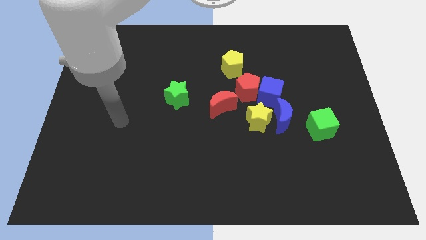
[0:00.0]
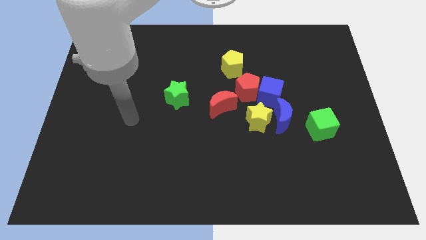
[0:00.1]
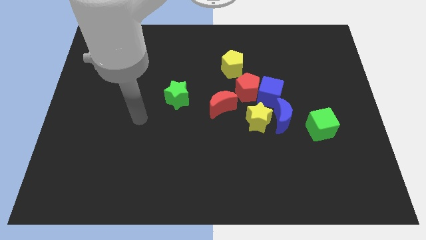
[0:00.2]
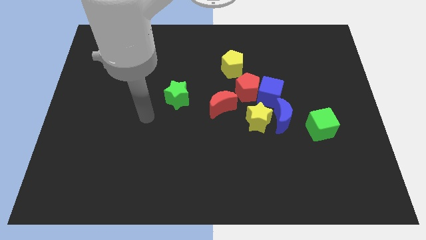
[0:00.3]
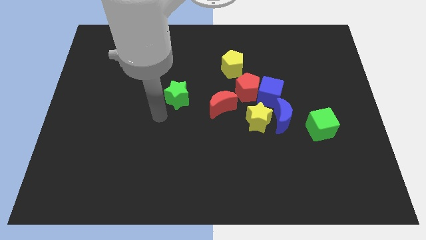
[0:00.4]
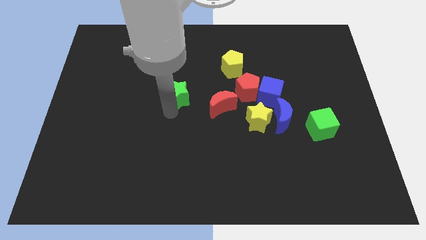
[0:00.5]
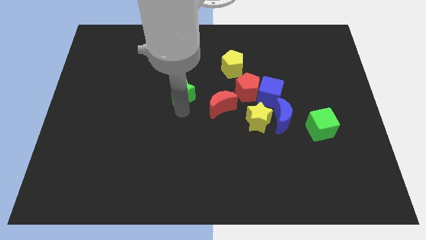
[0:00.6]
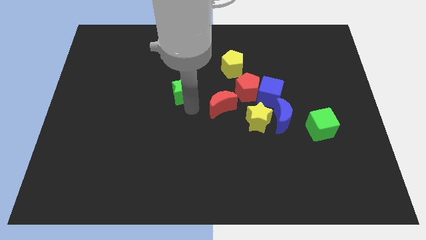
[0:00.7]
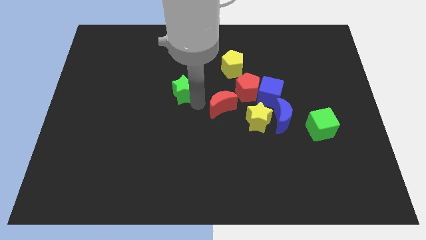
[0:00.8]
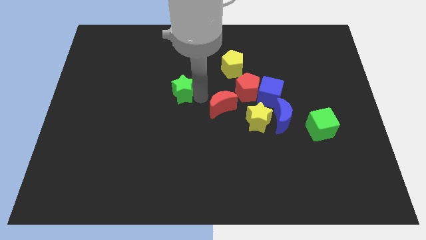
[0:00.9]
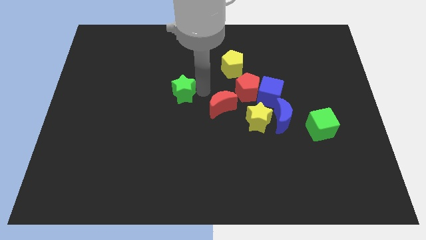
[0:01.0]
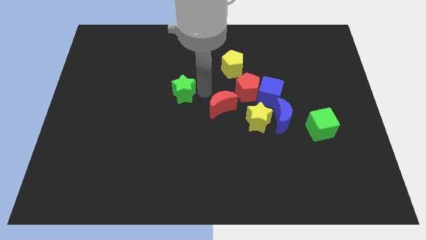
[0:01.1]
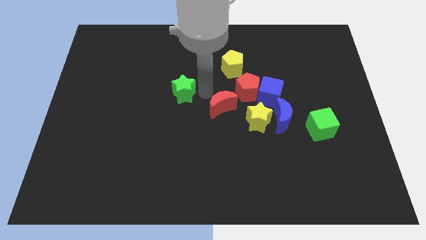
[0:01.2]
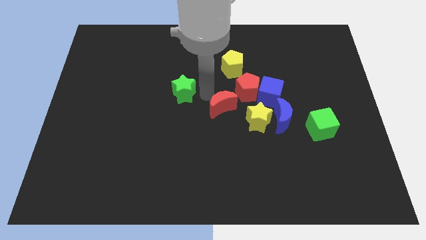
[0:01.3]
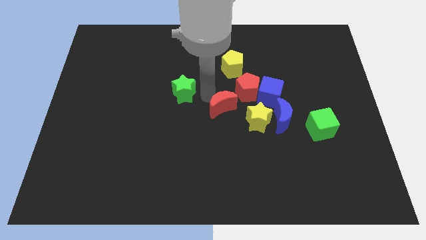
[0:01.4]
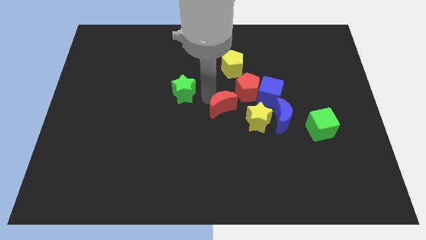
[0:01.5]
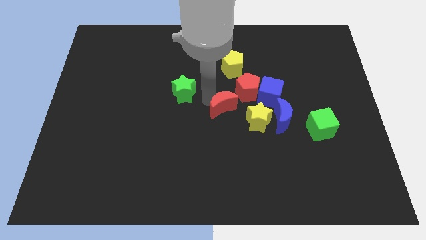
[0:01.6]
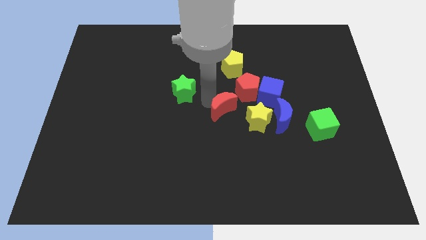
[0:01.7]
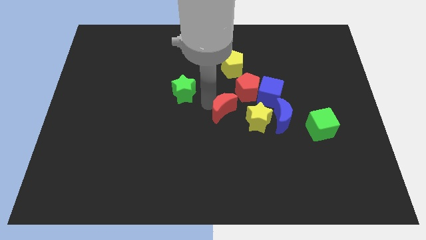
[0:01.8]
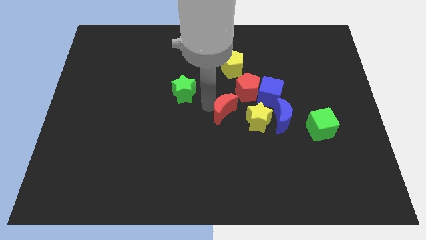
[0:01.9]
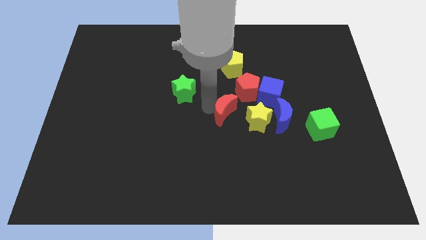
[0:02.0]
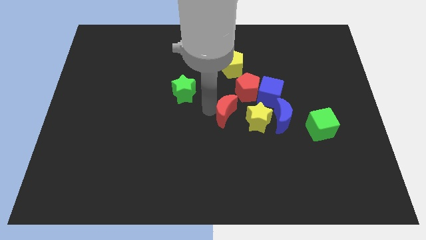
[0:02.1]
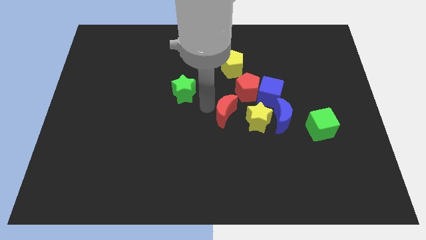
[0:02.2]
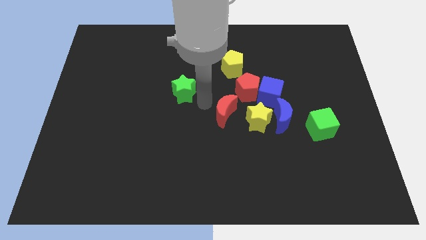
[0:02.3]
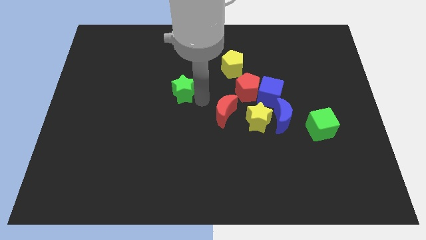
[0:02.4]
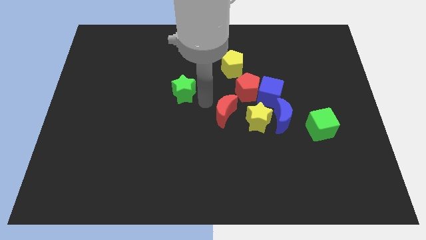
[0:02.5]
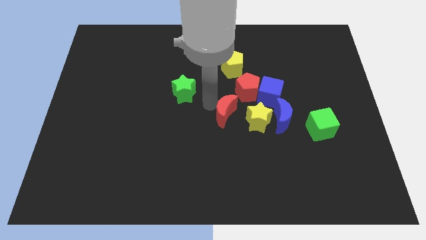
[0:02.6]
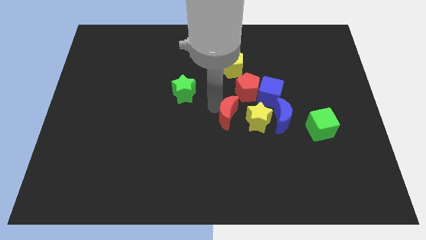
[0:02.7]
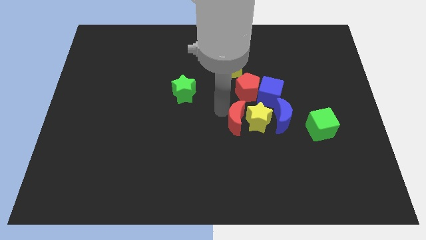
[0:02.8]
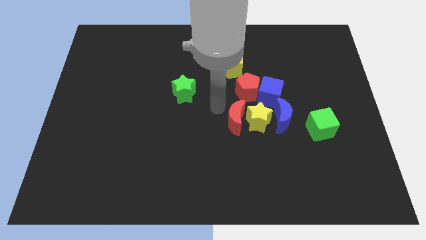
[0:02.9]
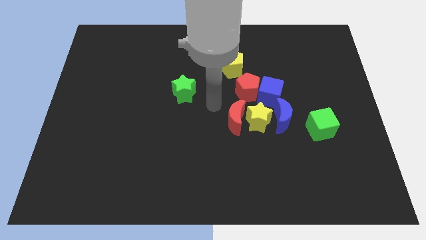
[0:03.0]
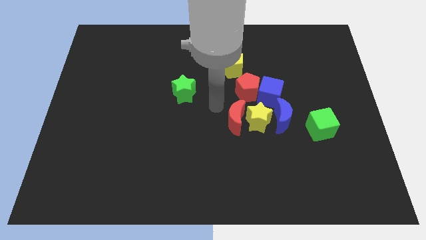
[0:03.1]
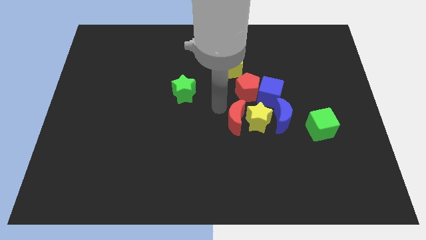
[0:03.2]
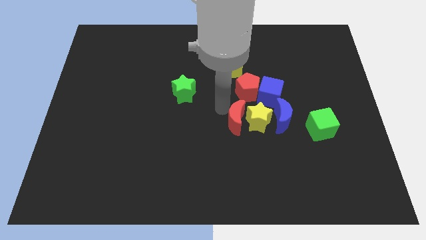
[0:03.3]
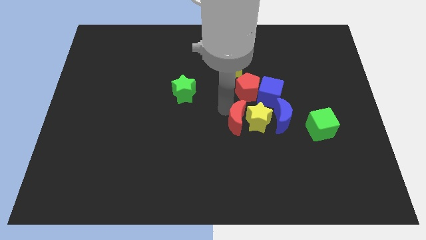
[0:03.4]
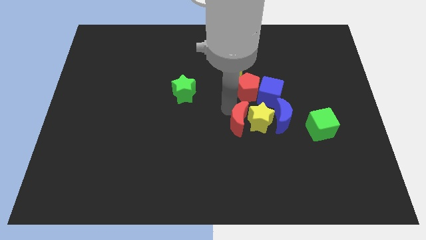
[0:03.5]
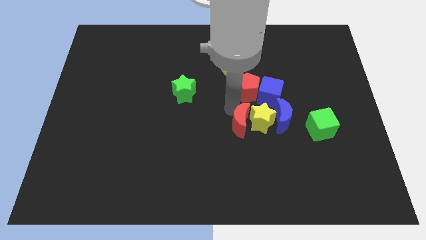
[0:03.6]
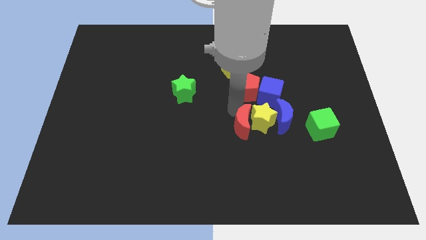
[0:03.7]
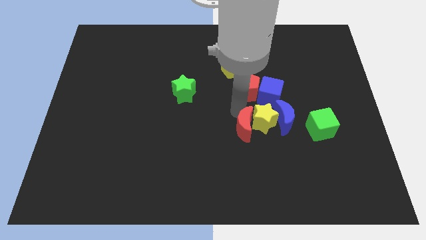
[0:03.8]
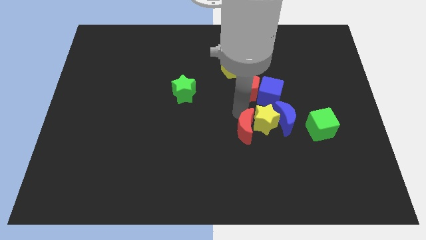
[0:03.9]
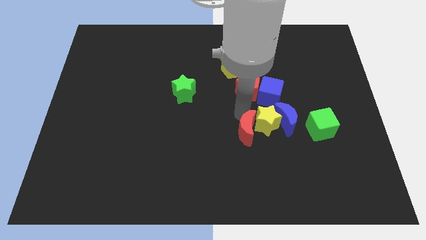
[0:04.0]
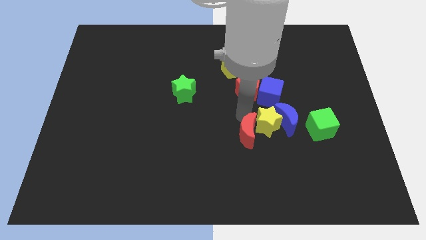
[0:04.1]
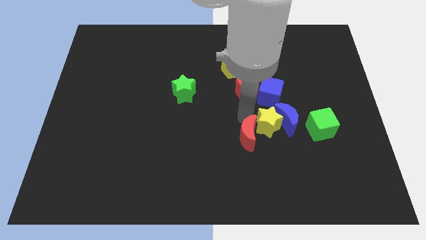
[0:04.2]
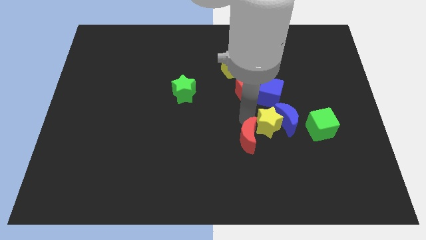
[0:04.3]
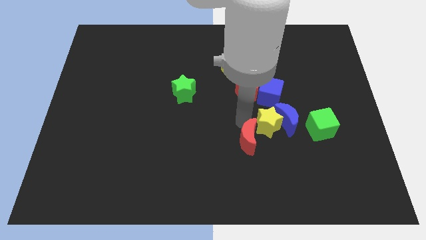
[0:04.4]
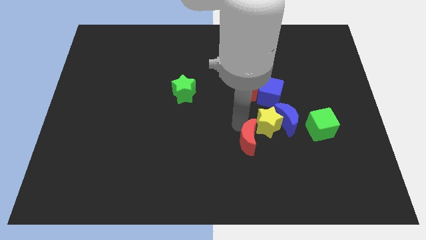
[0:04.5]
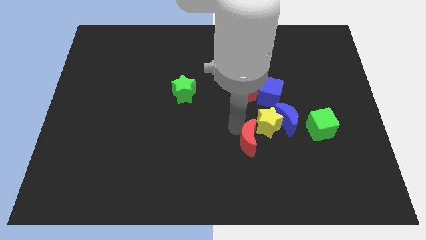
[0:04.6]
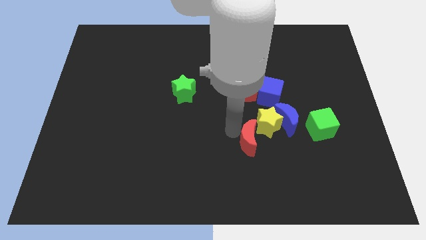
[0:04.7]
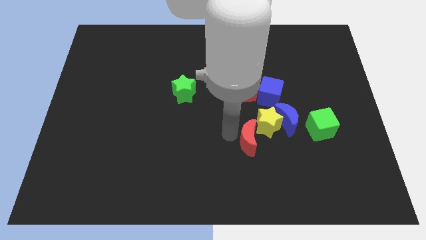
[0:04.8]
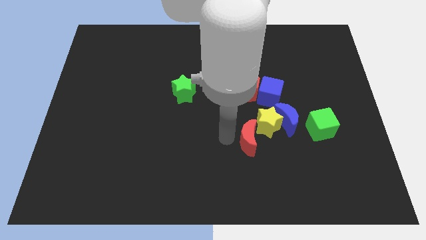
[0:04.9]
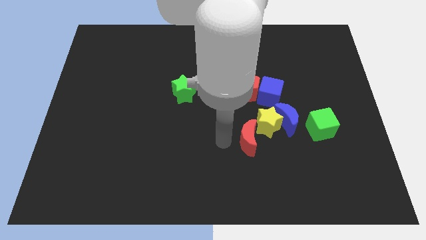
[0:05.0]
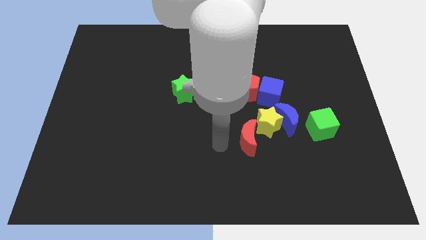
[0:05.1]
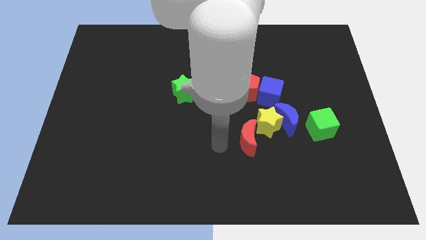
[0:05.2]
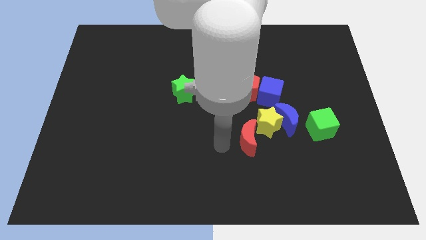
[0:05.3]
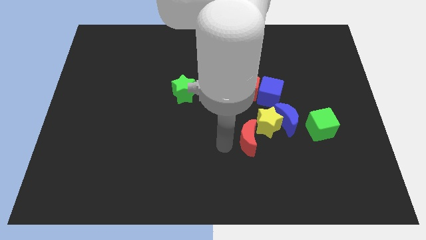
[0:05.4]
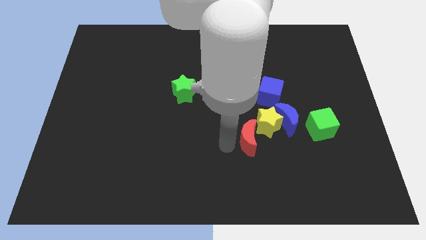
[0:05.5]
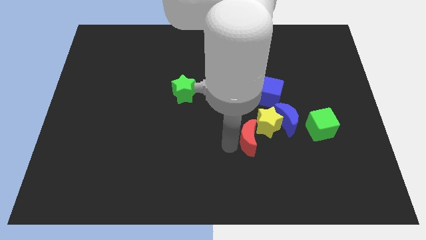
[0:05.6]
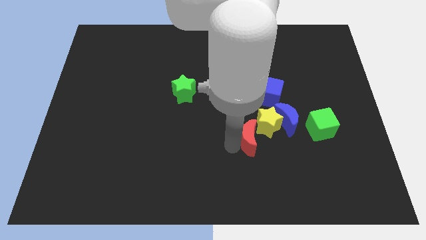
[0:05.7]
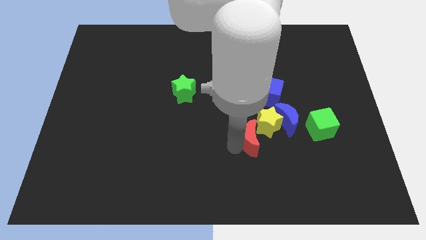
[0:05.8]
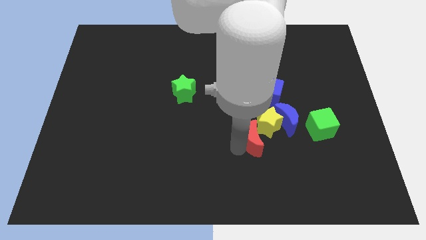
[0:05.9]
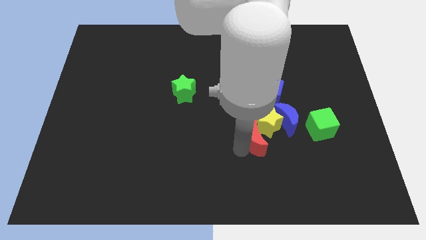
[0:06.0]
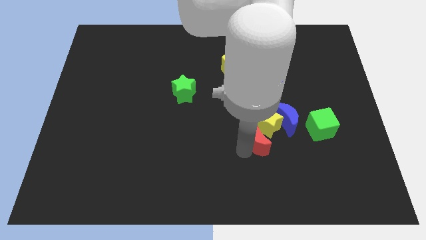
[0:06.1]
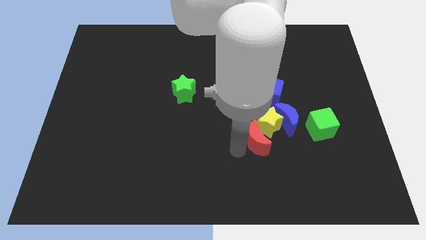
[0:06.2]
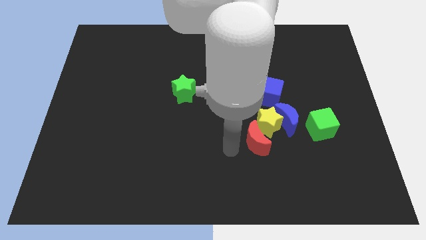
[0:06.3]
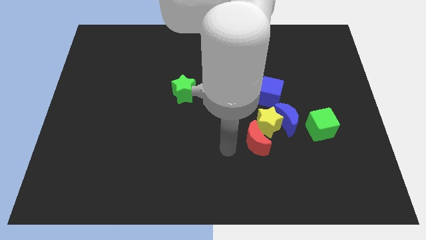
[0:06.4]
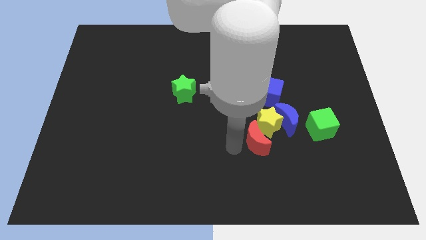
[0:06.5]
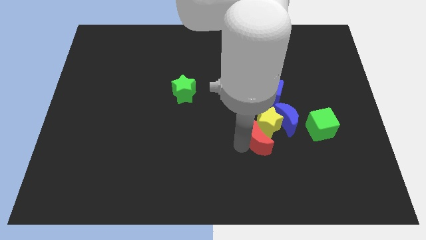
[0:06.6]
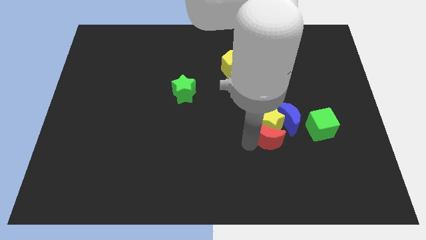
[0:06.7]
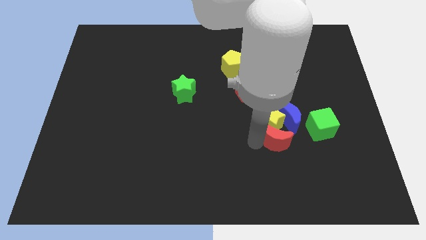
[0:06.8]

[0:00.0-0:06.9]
slide the red moon to the right a little bit

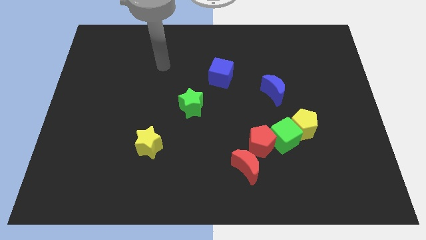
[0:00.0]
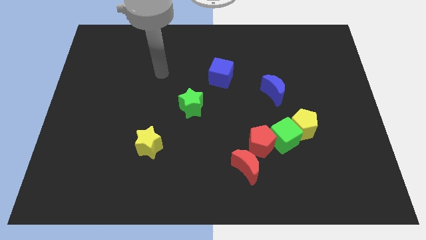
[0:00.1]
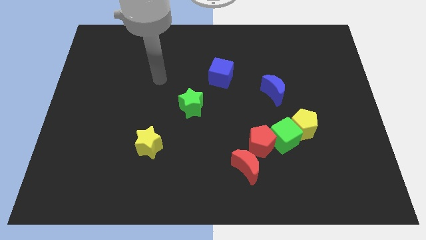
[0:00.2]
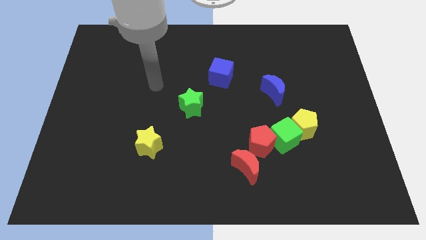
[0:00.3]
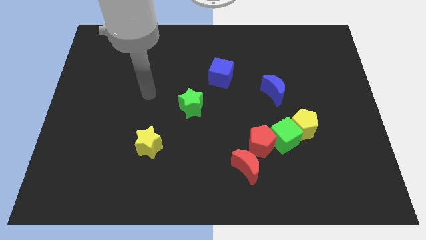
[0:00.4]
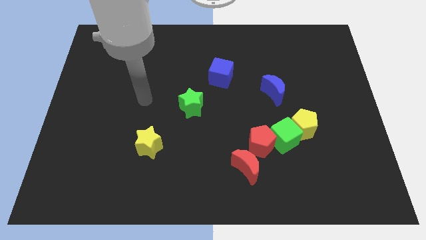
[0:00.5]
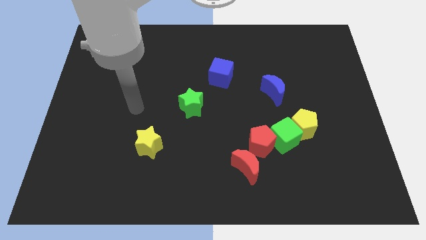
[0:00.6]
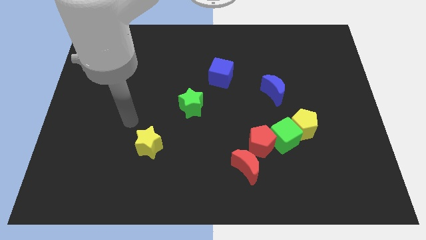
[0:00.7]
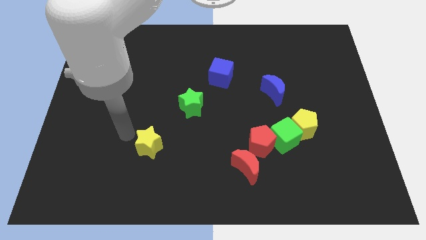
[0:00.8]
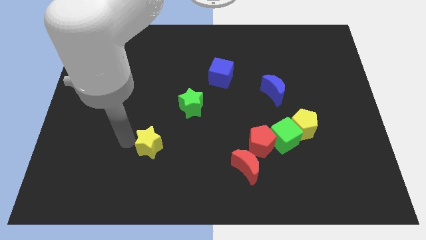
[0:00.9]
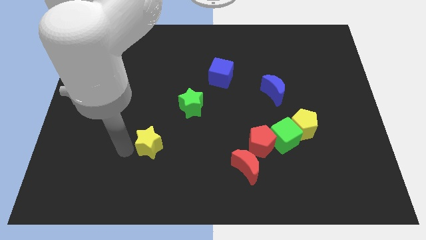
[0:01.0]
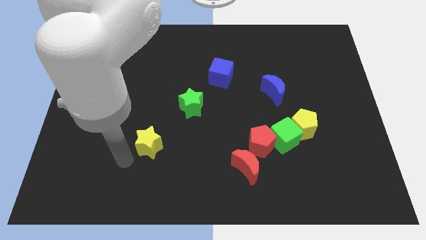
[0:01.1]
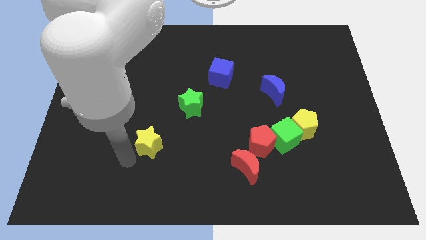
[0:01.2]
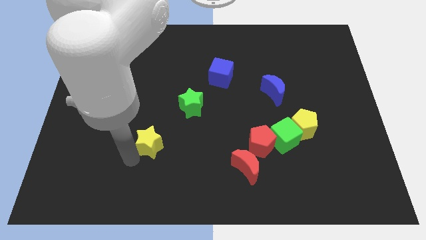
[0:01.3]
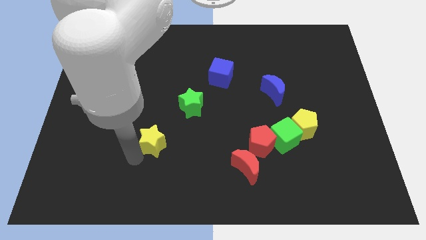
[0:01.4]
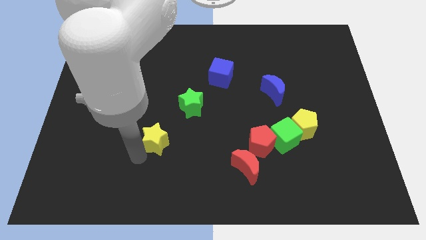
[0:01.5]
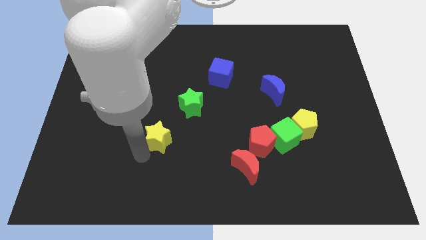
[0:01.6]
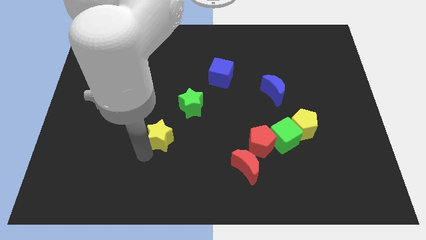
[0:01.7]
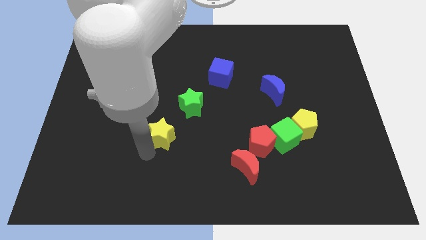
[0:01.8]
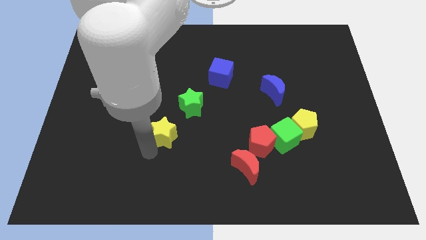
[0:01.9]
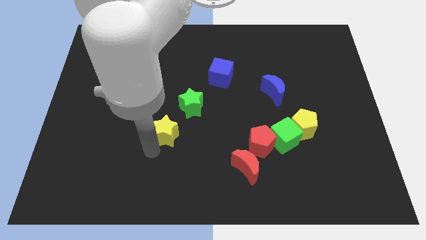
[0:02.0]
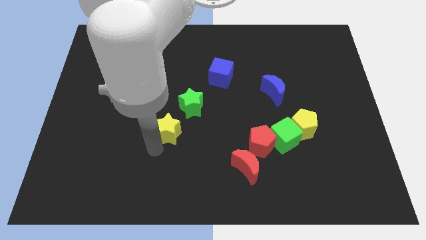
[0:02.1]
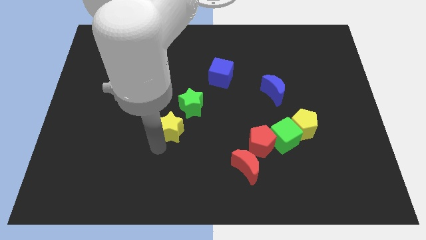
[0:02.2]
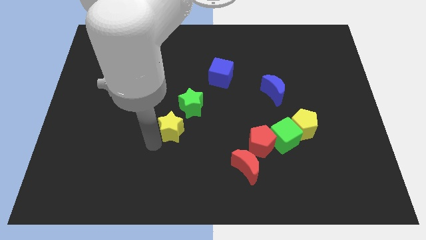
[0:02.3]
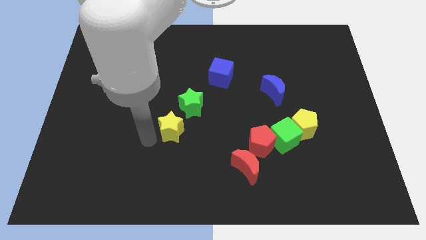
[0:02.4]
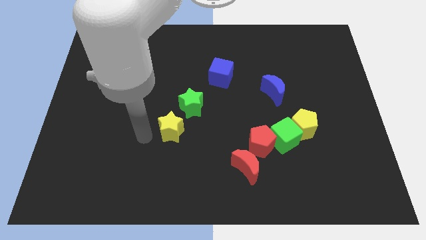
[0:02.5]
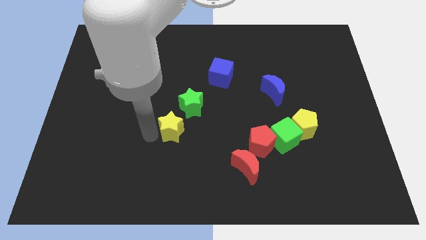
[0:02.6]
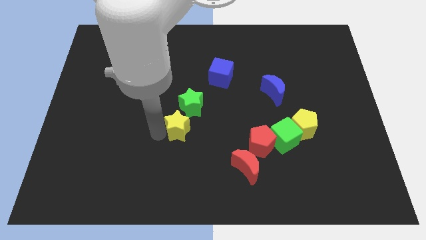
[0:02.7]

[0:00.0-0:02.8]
move the yellow star a bit up and right diagonally
